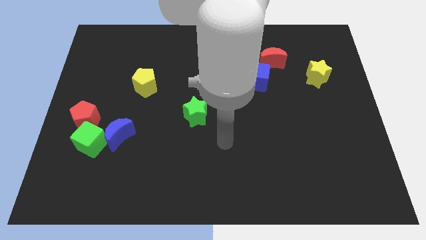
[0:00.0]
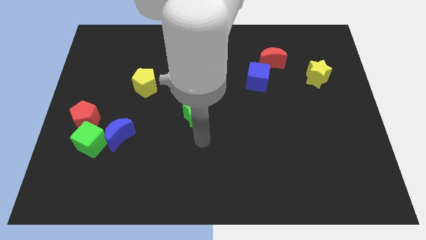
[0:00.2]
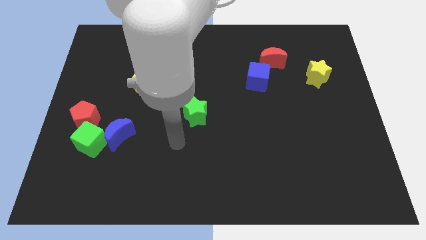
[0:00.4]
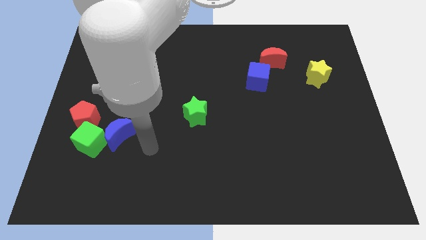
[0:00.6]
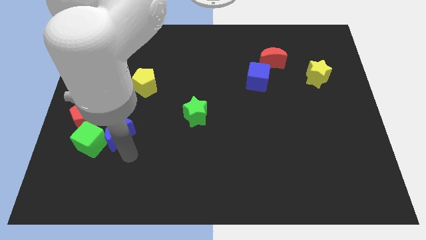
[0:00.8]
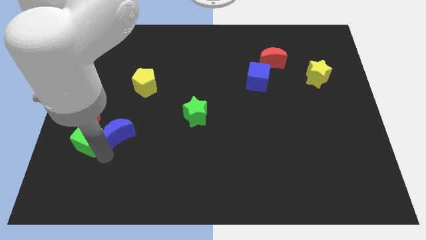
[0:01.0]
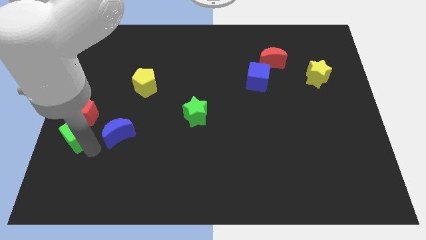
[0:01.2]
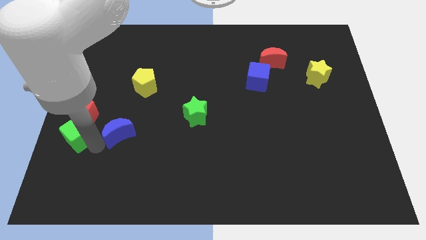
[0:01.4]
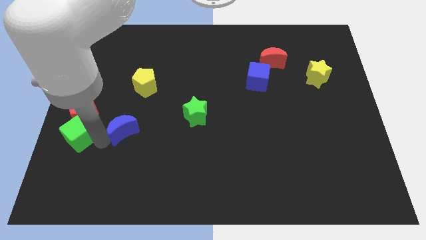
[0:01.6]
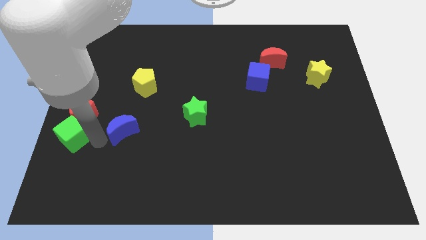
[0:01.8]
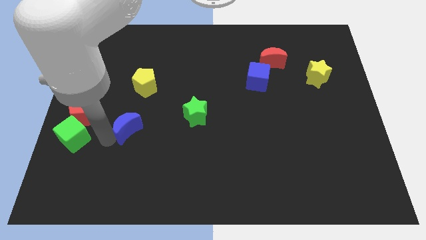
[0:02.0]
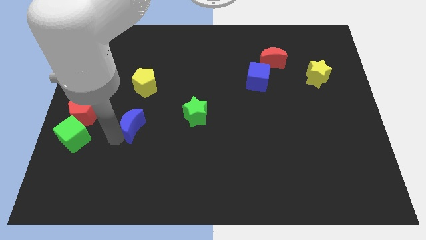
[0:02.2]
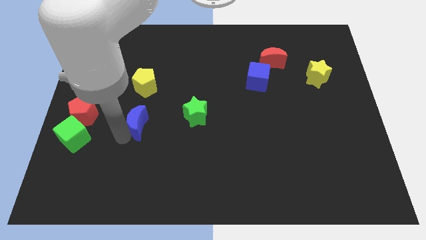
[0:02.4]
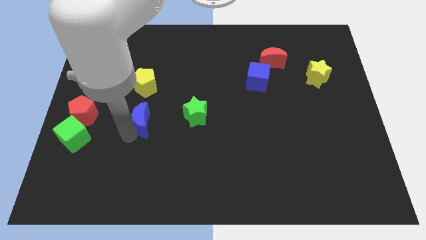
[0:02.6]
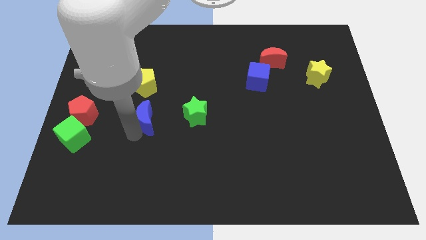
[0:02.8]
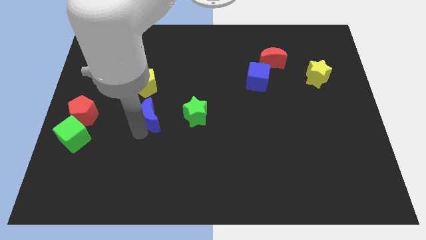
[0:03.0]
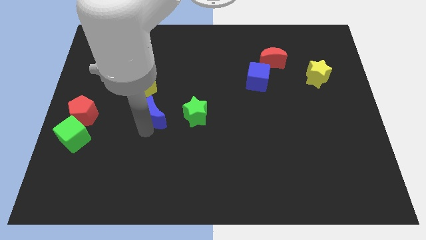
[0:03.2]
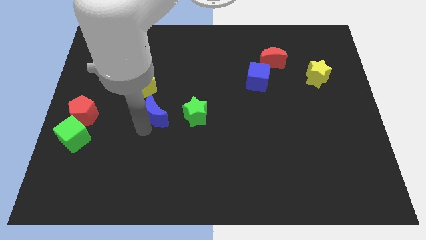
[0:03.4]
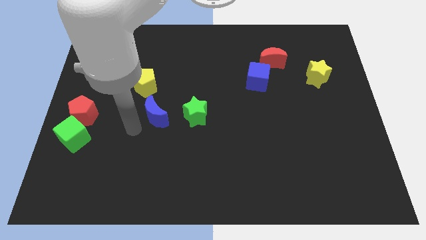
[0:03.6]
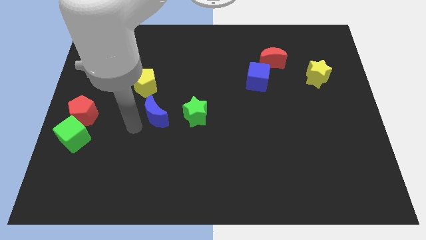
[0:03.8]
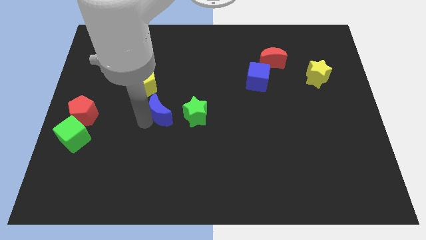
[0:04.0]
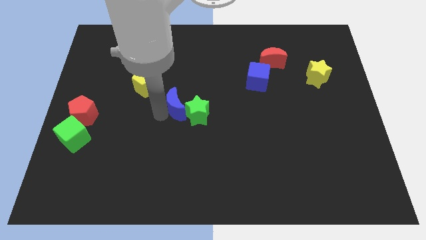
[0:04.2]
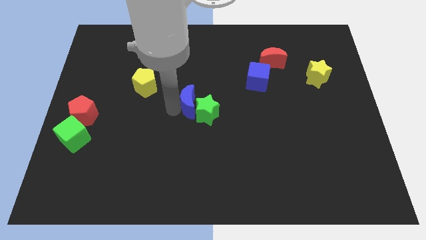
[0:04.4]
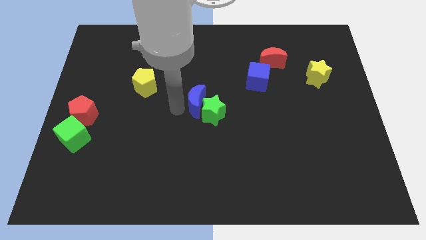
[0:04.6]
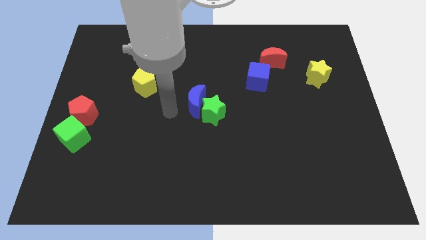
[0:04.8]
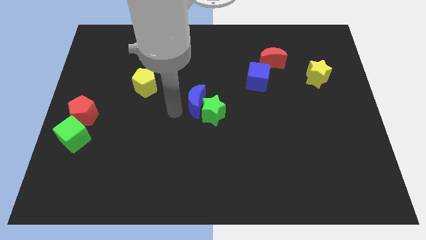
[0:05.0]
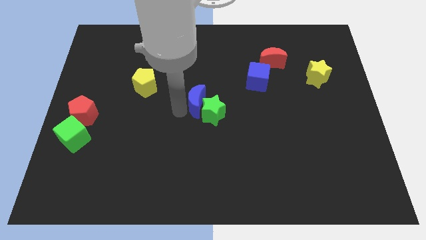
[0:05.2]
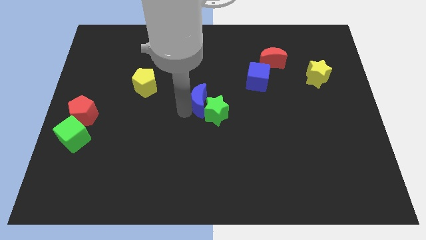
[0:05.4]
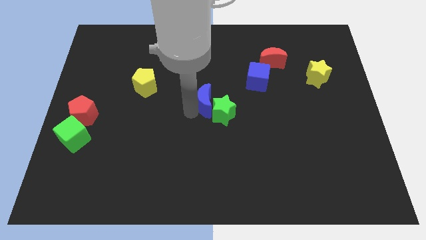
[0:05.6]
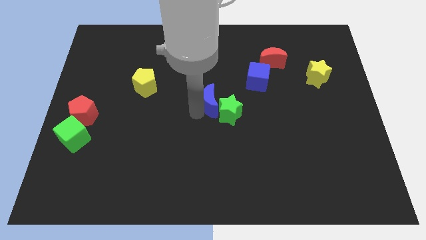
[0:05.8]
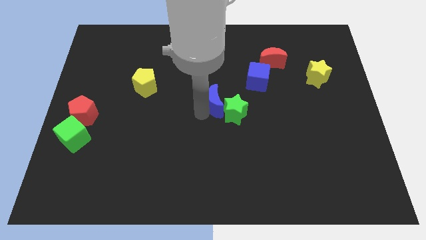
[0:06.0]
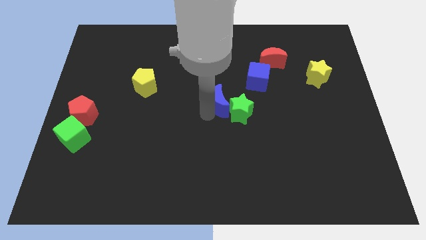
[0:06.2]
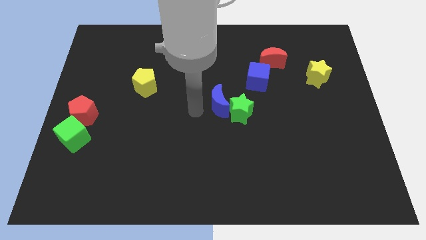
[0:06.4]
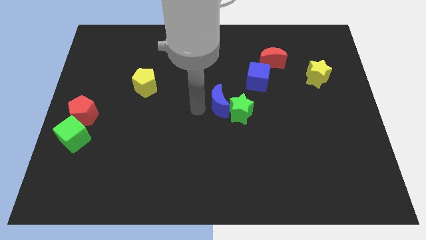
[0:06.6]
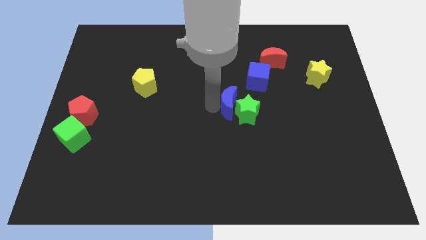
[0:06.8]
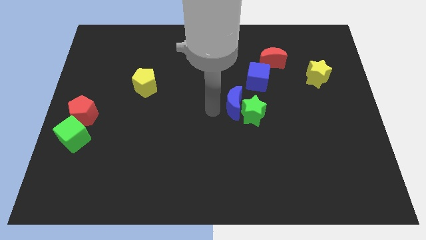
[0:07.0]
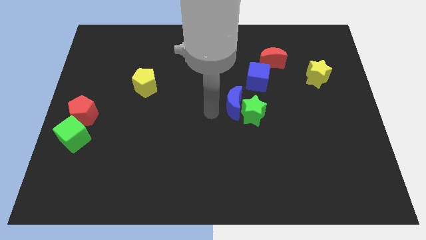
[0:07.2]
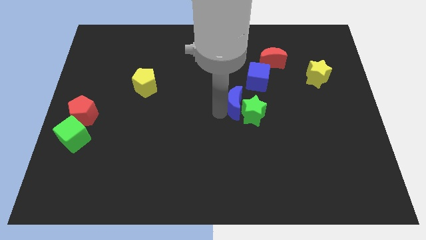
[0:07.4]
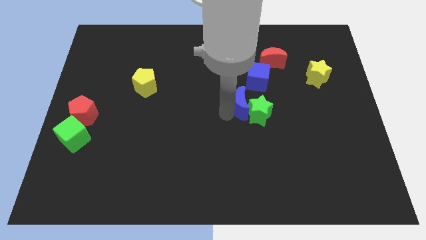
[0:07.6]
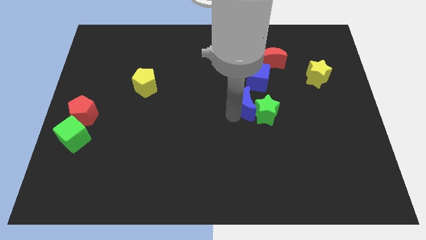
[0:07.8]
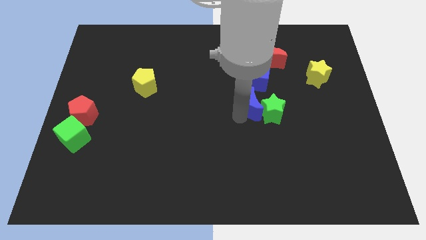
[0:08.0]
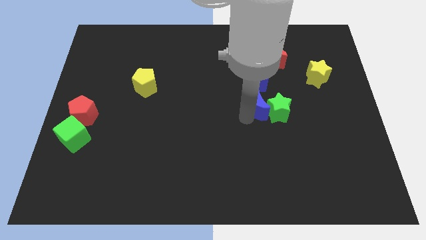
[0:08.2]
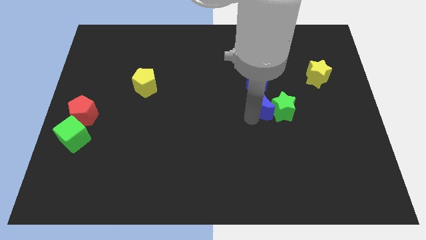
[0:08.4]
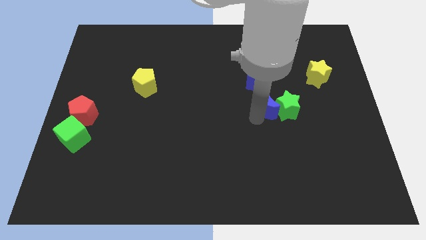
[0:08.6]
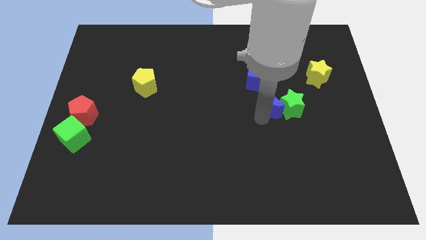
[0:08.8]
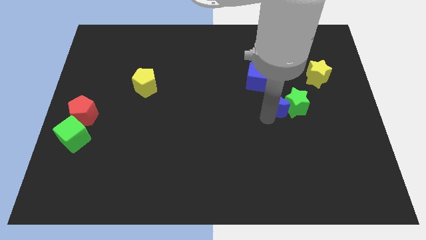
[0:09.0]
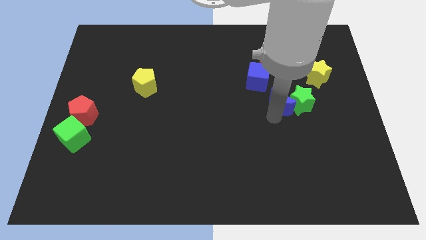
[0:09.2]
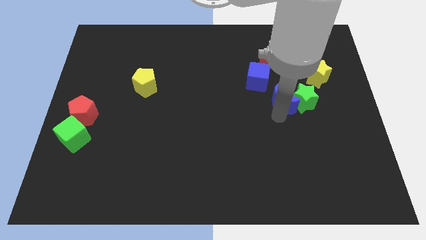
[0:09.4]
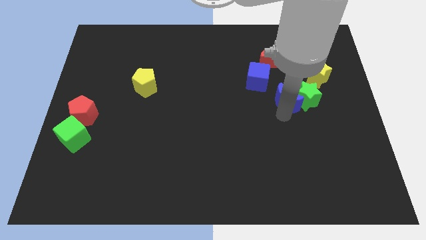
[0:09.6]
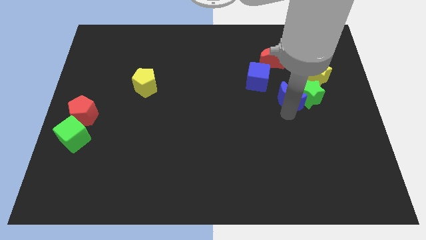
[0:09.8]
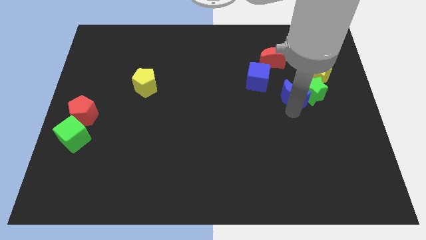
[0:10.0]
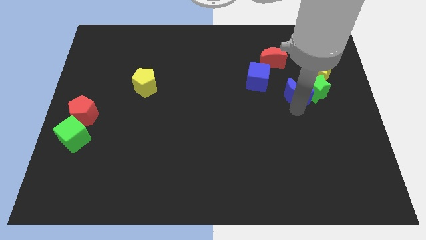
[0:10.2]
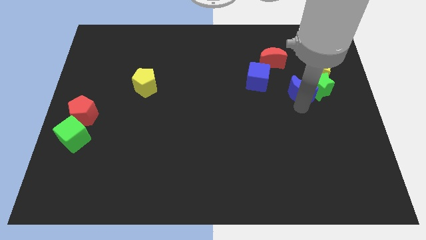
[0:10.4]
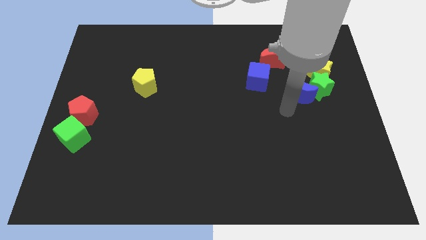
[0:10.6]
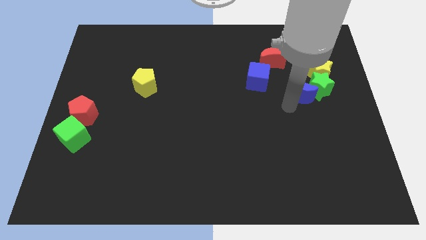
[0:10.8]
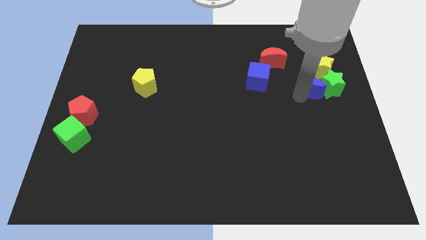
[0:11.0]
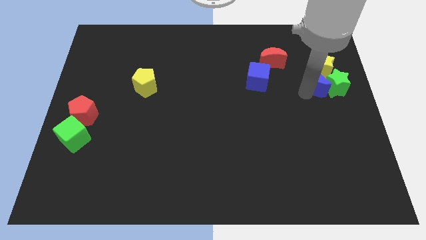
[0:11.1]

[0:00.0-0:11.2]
push the blue moon close to the yellow star
